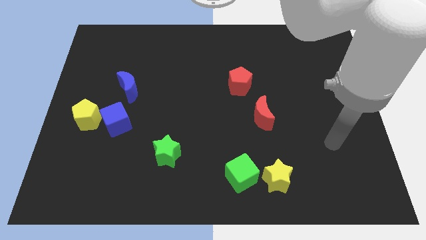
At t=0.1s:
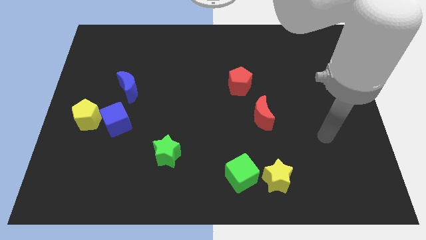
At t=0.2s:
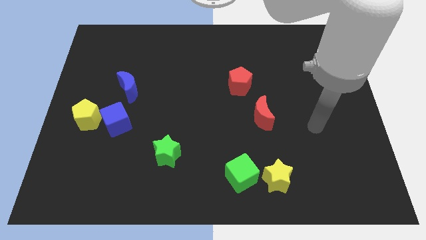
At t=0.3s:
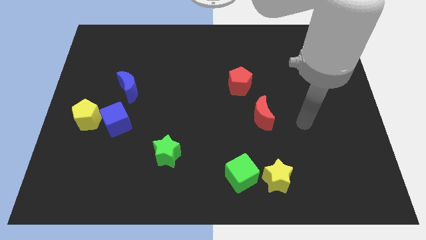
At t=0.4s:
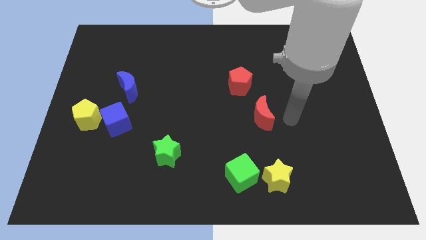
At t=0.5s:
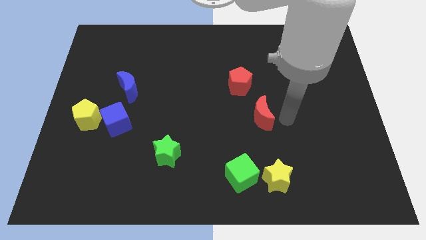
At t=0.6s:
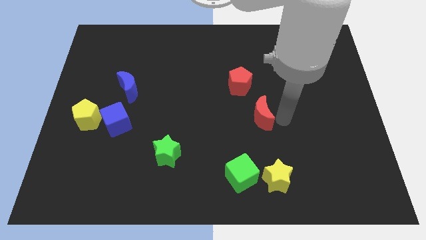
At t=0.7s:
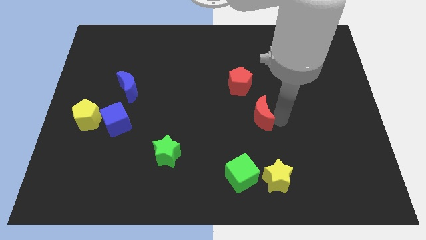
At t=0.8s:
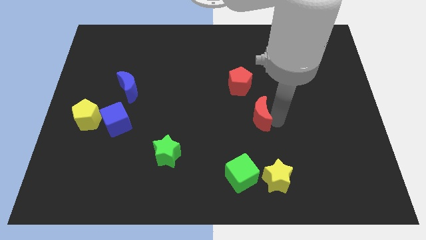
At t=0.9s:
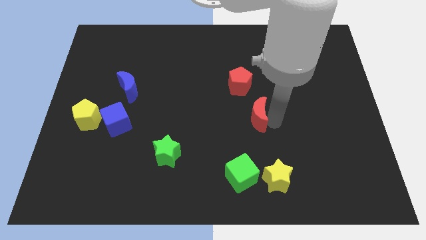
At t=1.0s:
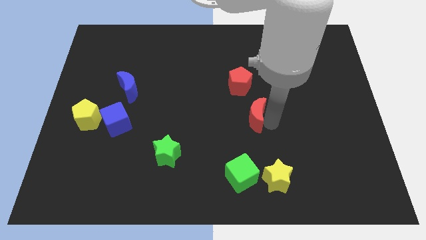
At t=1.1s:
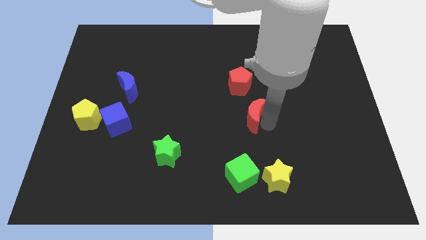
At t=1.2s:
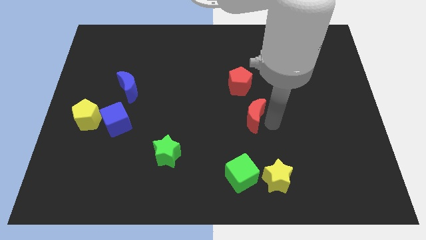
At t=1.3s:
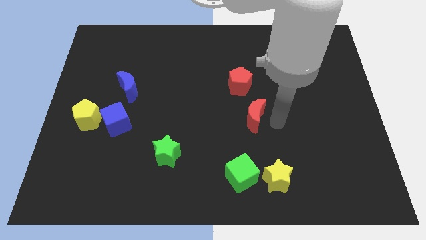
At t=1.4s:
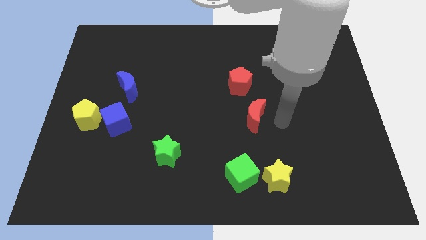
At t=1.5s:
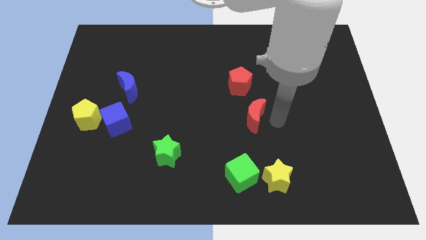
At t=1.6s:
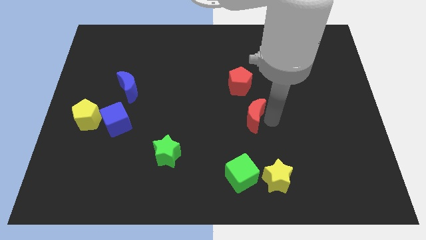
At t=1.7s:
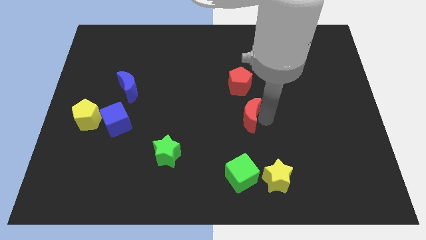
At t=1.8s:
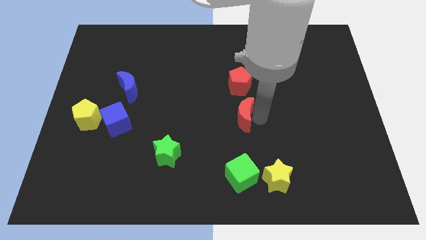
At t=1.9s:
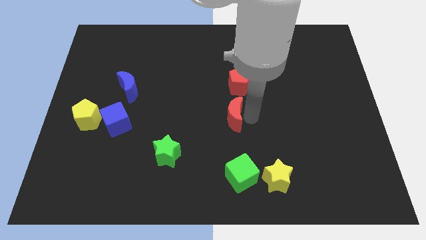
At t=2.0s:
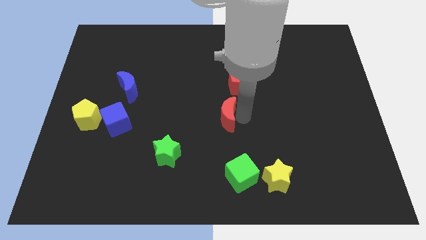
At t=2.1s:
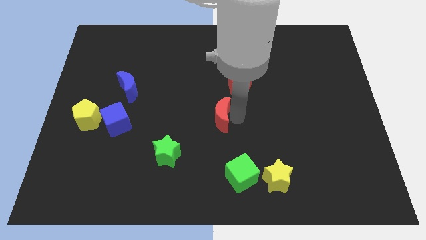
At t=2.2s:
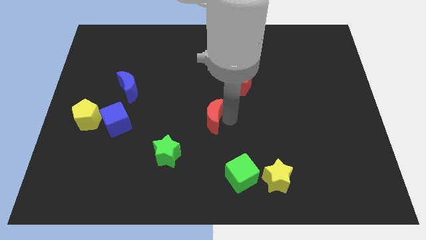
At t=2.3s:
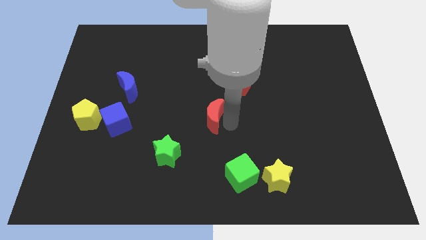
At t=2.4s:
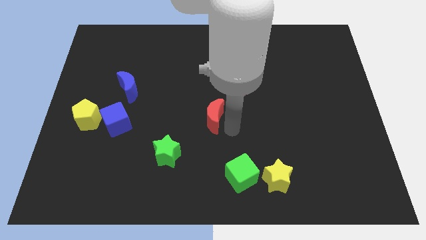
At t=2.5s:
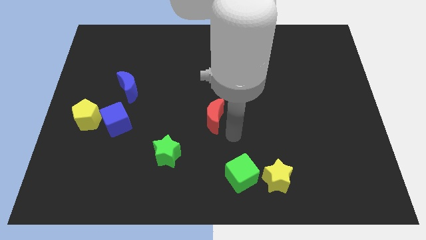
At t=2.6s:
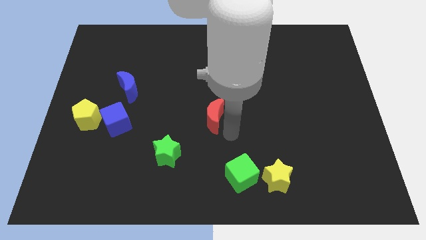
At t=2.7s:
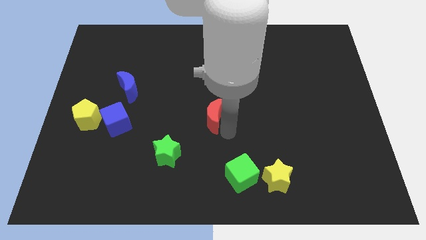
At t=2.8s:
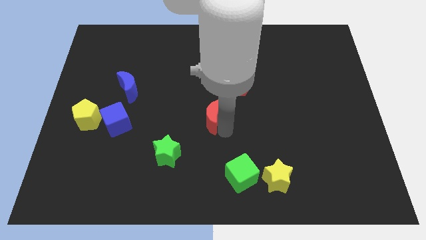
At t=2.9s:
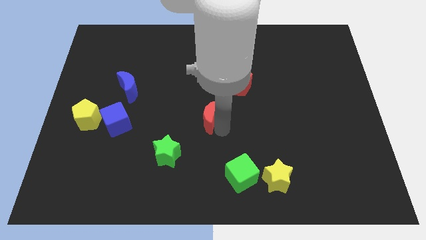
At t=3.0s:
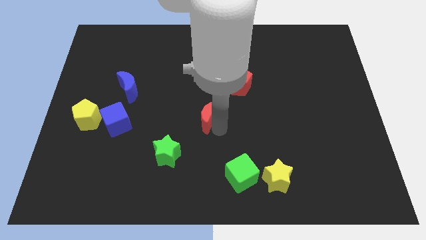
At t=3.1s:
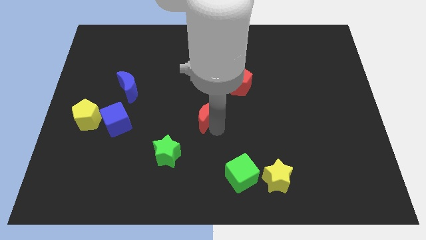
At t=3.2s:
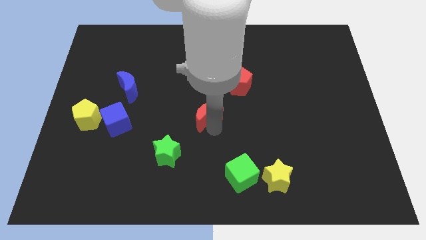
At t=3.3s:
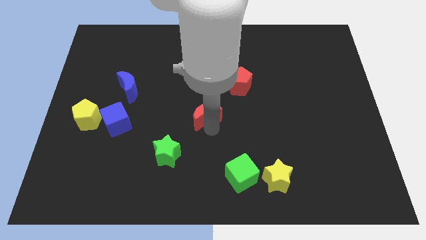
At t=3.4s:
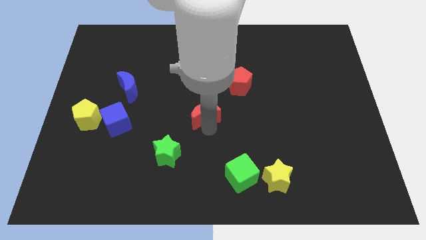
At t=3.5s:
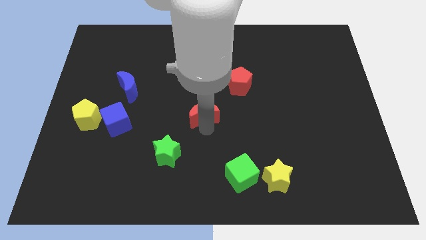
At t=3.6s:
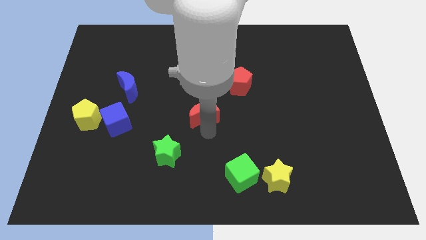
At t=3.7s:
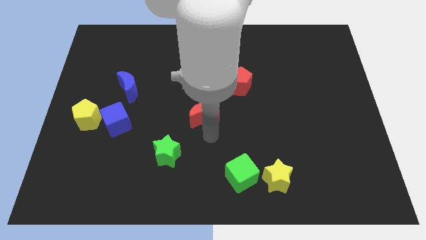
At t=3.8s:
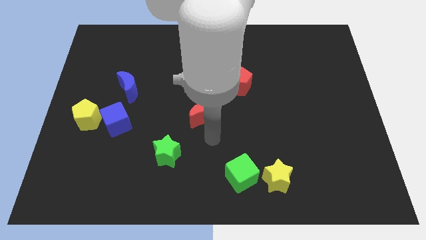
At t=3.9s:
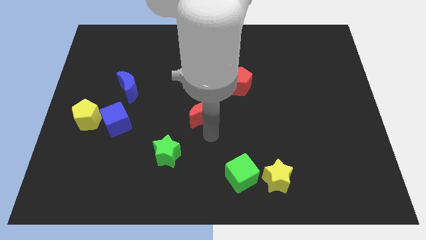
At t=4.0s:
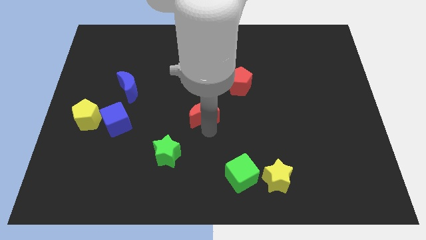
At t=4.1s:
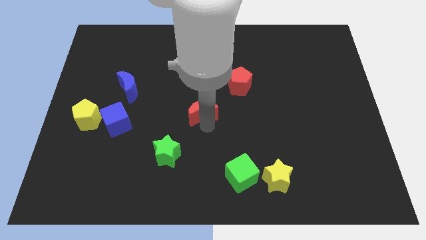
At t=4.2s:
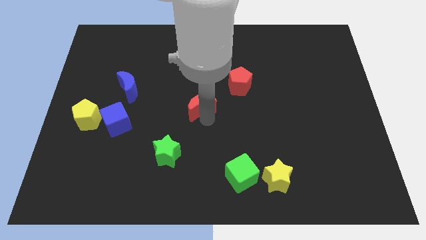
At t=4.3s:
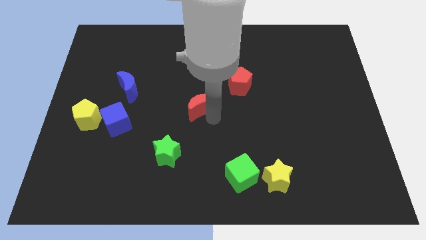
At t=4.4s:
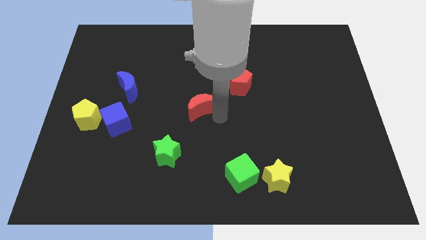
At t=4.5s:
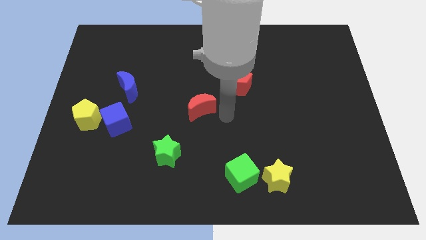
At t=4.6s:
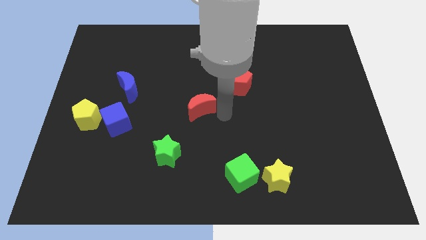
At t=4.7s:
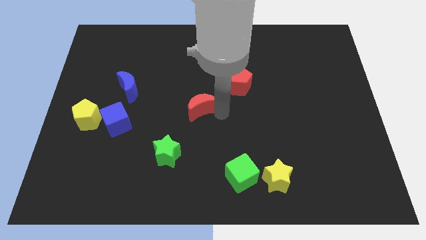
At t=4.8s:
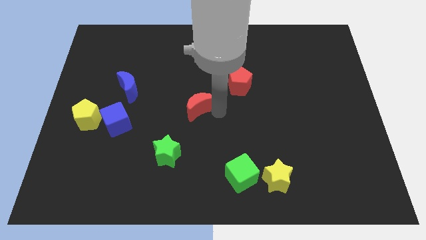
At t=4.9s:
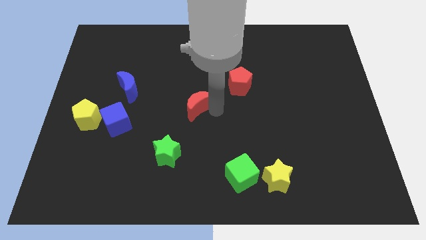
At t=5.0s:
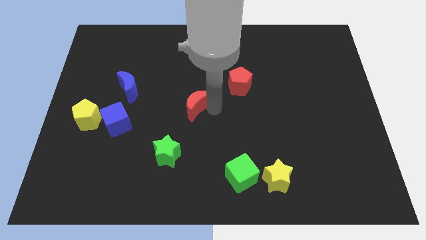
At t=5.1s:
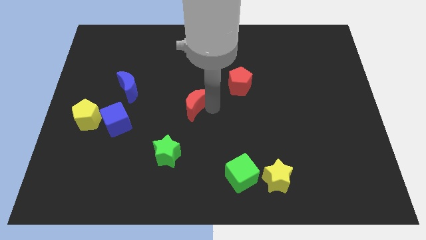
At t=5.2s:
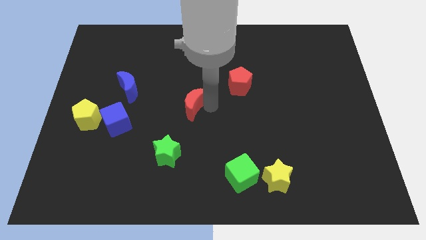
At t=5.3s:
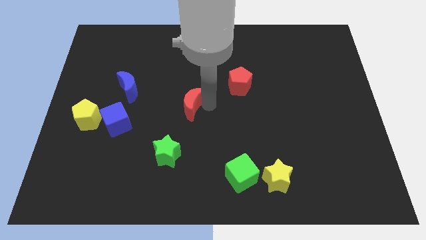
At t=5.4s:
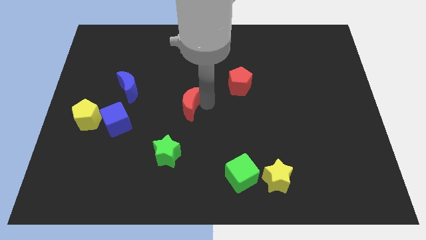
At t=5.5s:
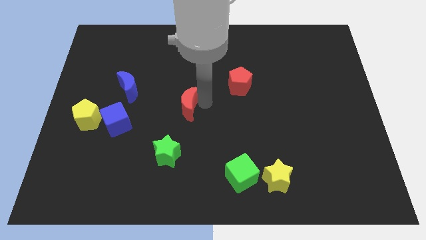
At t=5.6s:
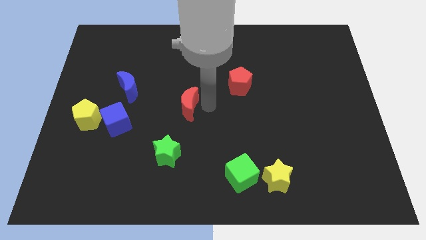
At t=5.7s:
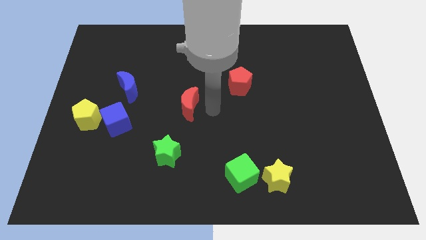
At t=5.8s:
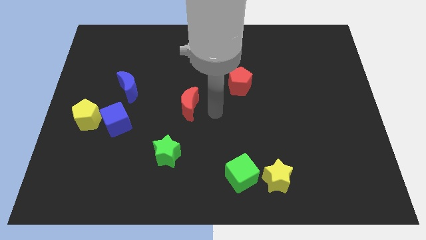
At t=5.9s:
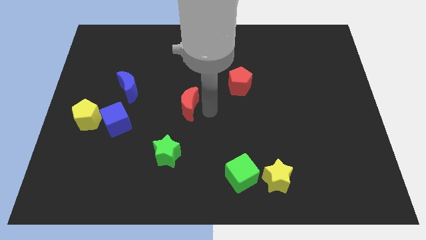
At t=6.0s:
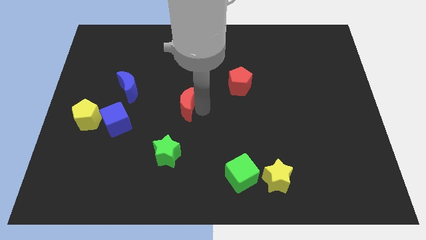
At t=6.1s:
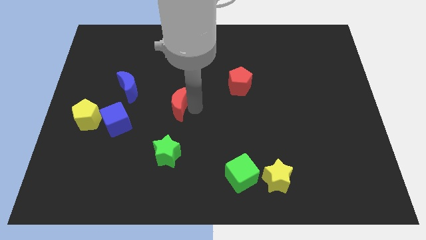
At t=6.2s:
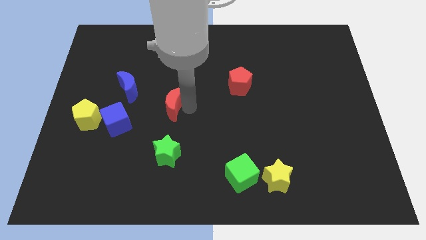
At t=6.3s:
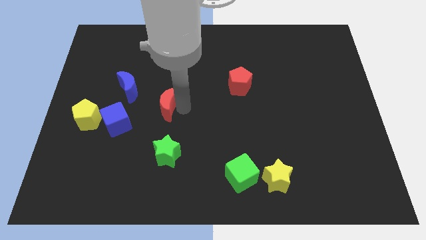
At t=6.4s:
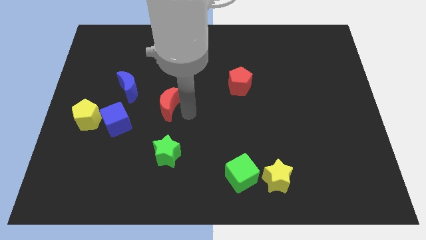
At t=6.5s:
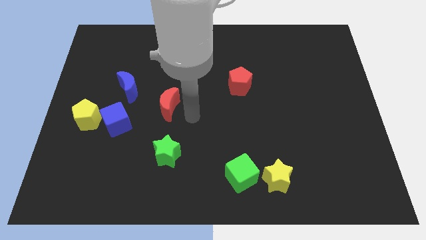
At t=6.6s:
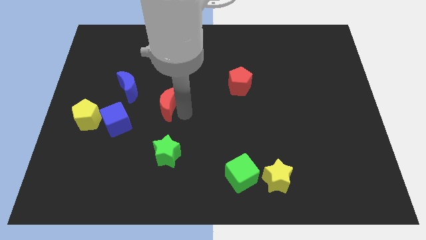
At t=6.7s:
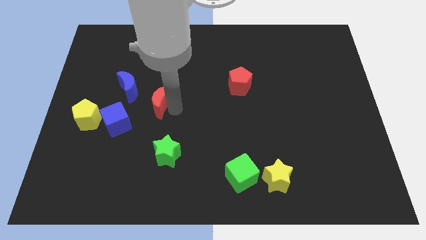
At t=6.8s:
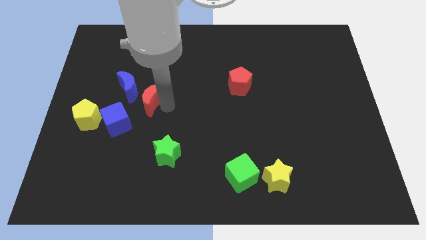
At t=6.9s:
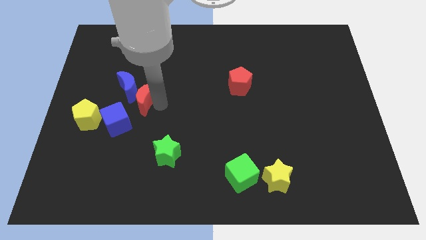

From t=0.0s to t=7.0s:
slide the red moon close to the blue moon
